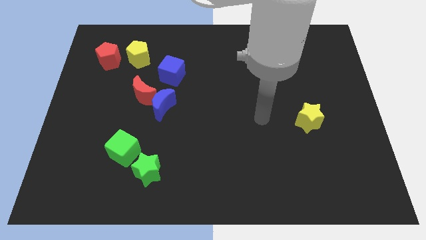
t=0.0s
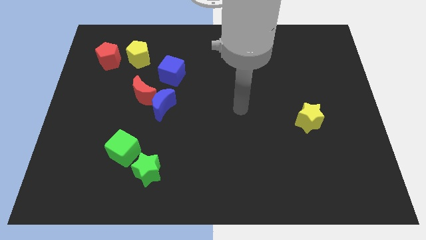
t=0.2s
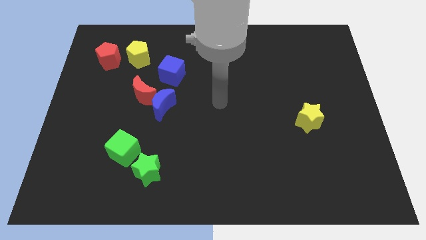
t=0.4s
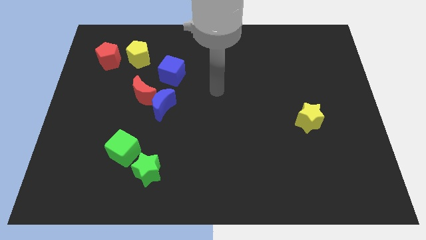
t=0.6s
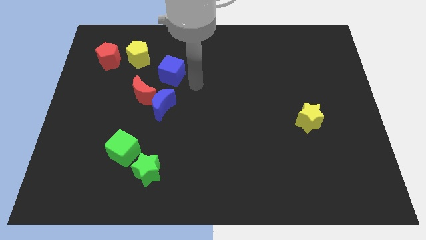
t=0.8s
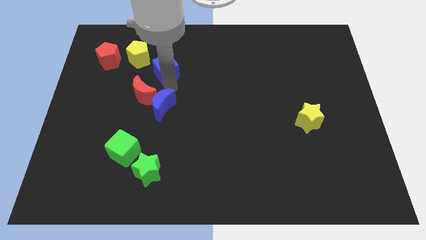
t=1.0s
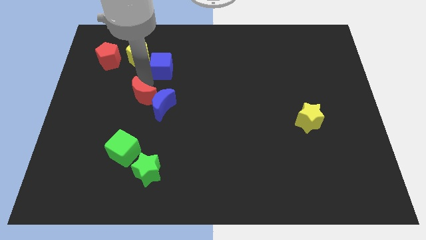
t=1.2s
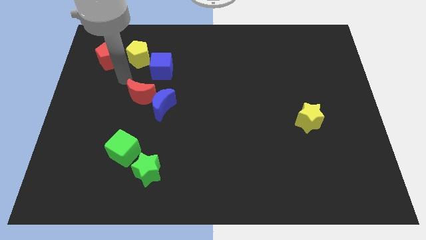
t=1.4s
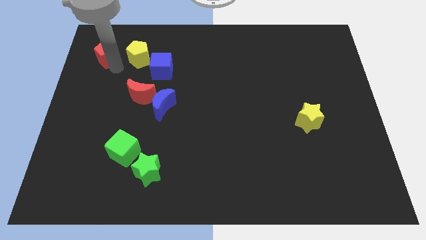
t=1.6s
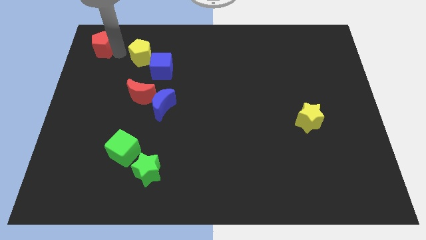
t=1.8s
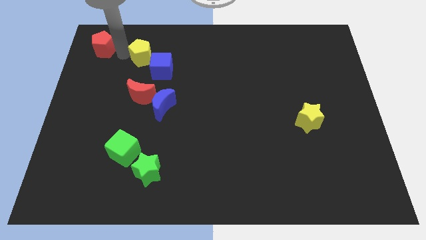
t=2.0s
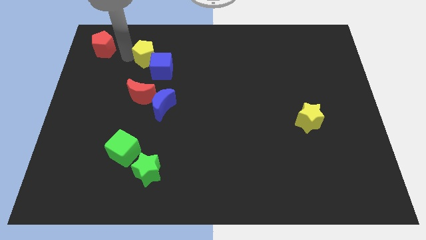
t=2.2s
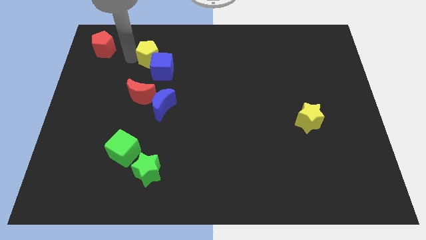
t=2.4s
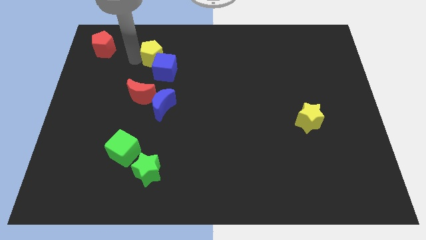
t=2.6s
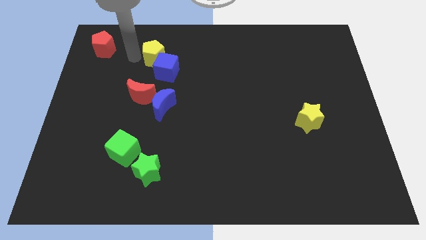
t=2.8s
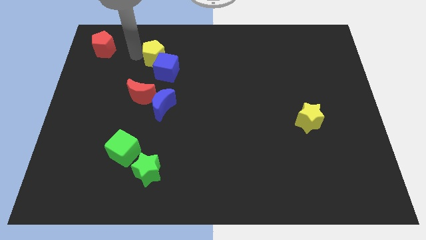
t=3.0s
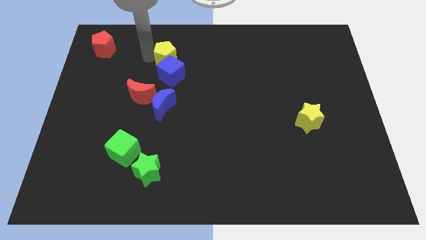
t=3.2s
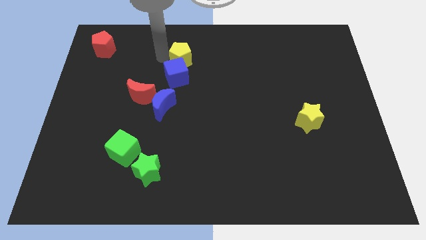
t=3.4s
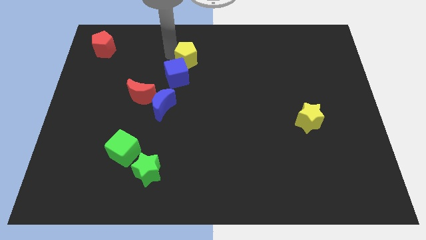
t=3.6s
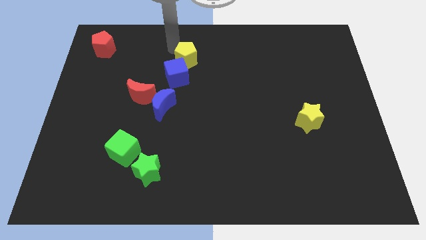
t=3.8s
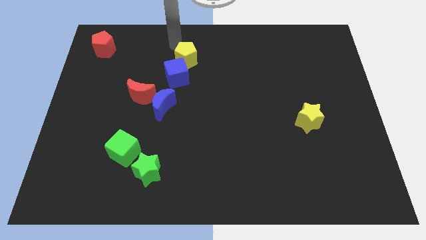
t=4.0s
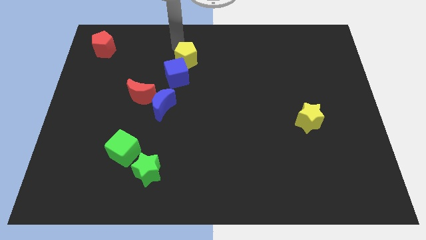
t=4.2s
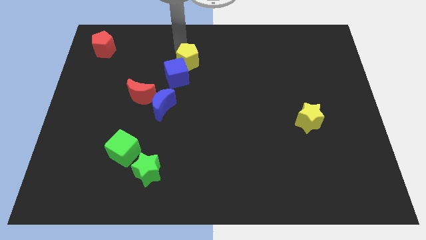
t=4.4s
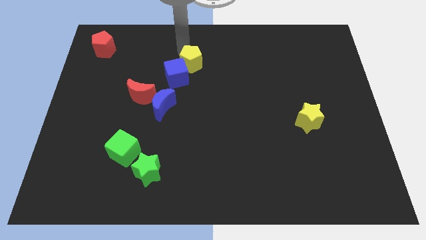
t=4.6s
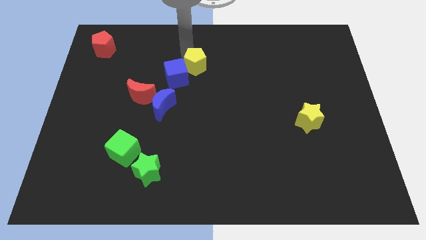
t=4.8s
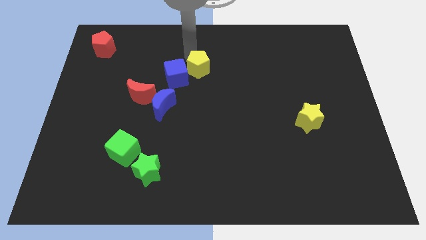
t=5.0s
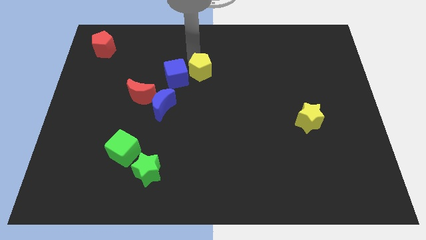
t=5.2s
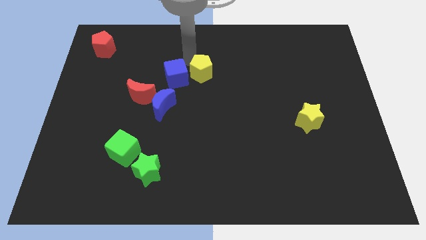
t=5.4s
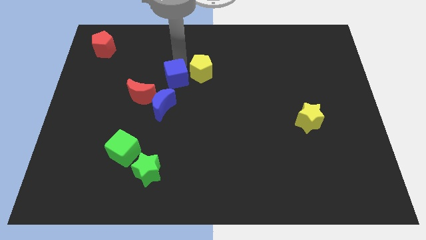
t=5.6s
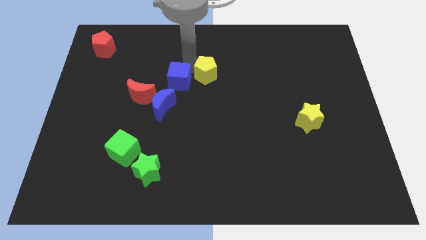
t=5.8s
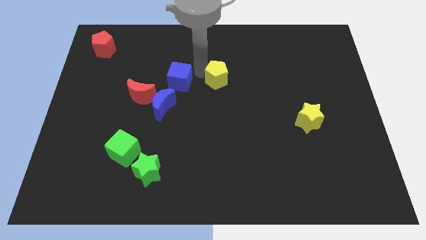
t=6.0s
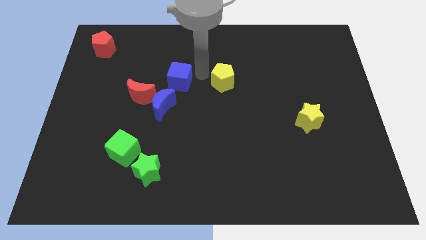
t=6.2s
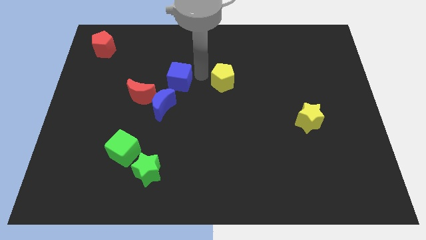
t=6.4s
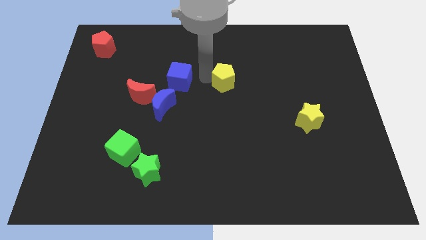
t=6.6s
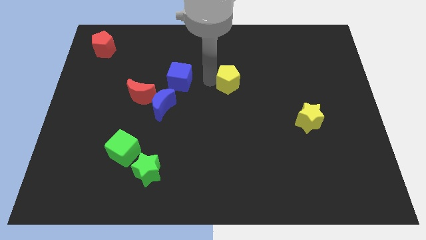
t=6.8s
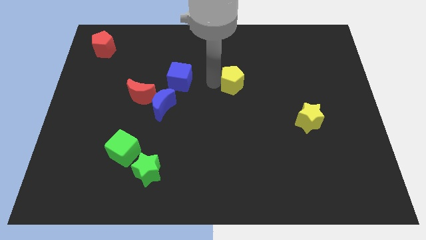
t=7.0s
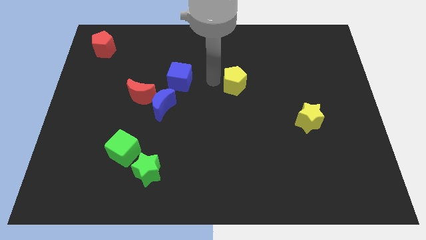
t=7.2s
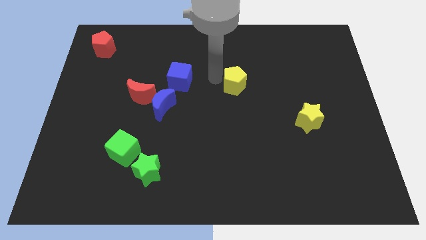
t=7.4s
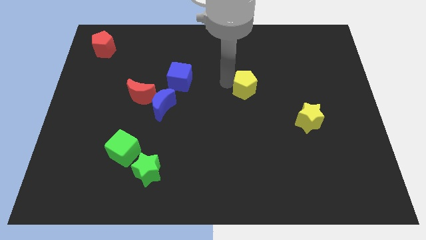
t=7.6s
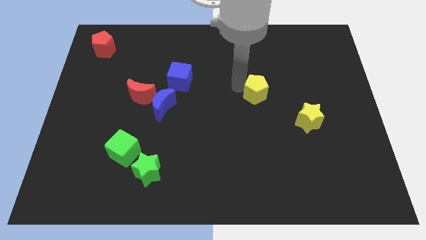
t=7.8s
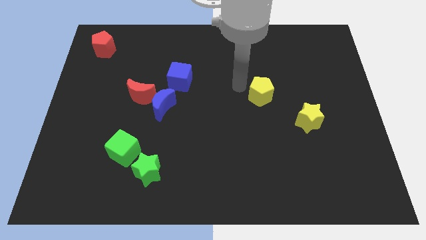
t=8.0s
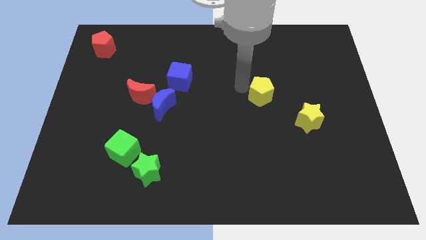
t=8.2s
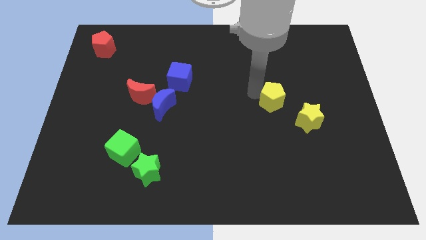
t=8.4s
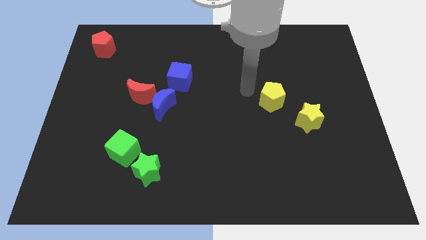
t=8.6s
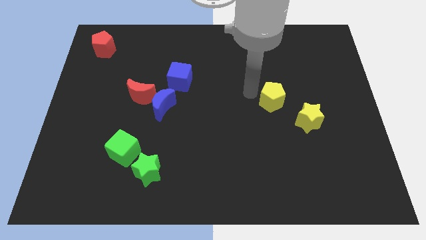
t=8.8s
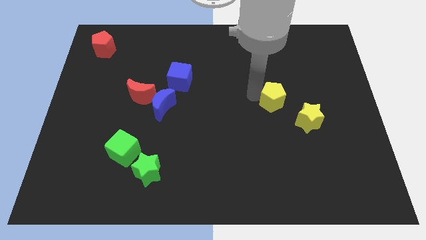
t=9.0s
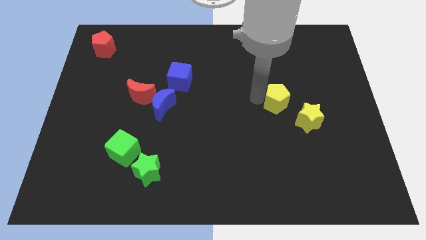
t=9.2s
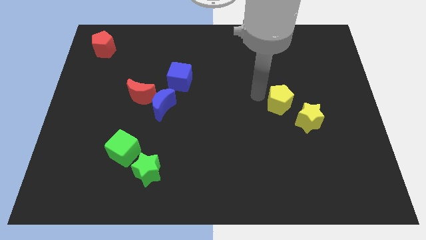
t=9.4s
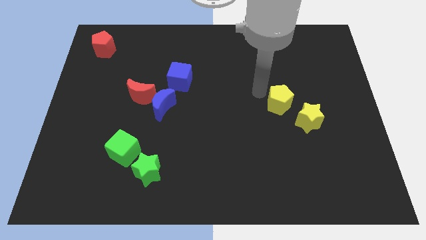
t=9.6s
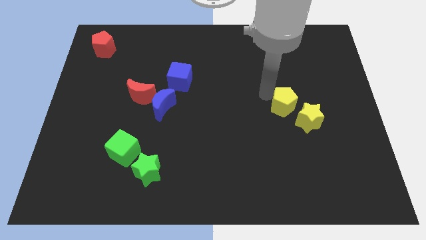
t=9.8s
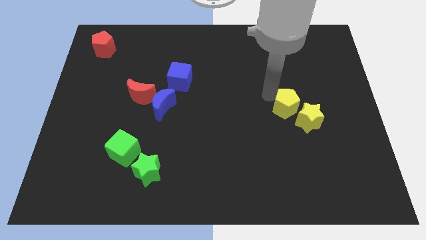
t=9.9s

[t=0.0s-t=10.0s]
move the yellow pentagon close to the yellow star

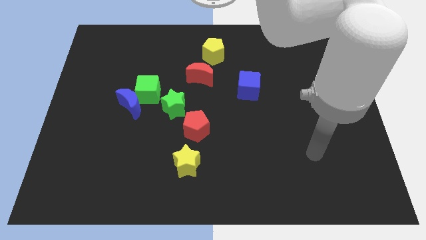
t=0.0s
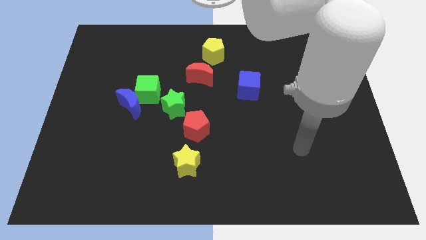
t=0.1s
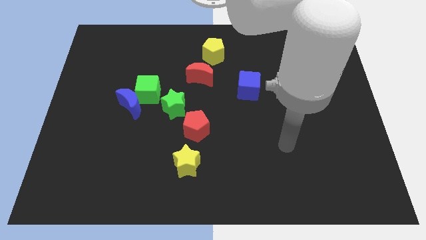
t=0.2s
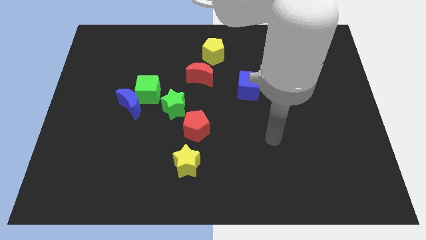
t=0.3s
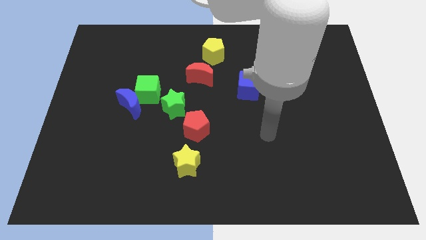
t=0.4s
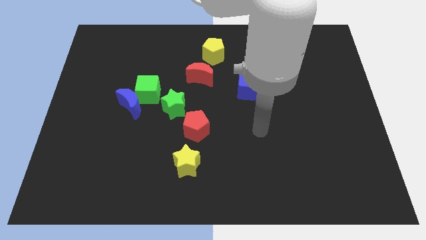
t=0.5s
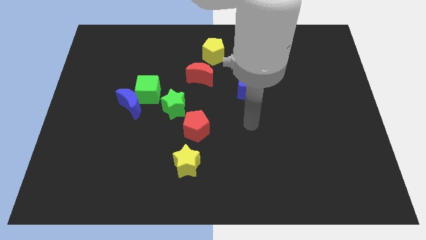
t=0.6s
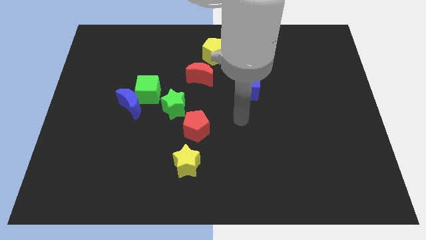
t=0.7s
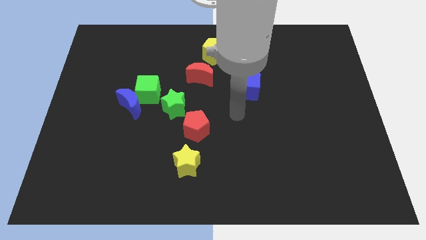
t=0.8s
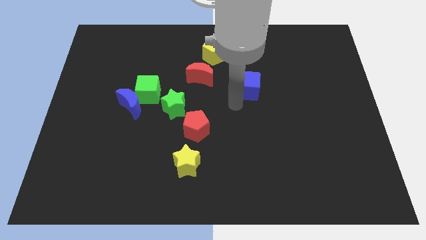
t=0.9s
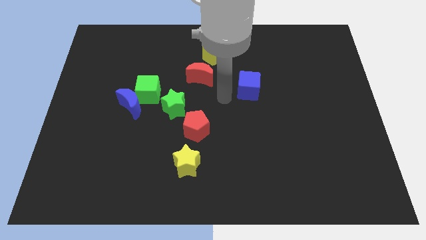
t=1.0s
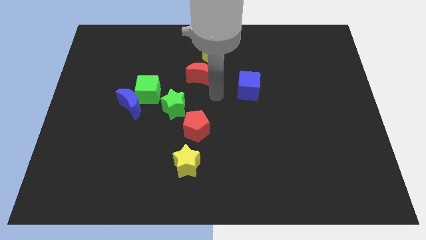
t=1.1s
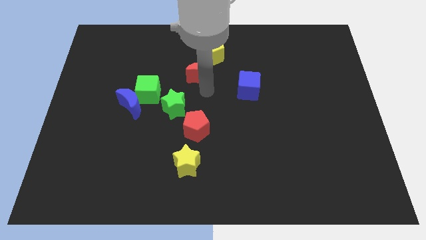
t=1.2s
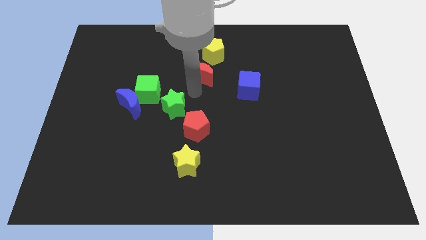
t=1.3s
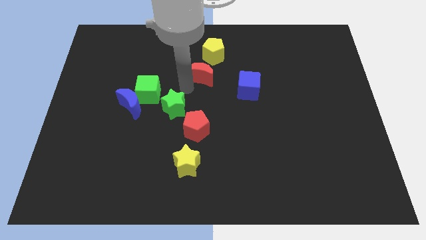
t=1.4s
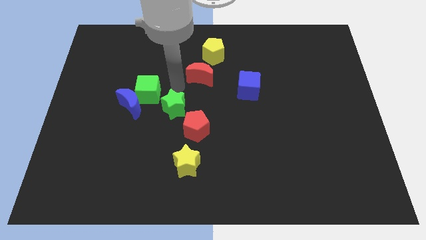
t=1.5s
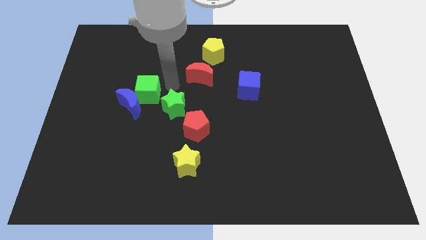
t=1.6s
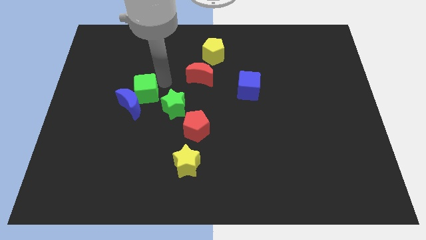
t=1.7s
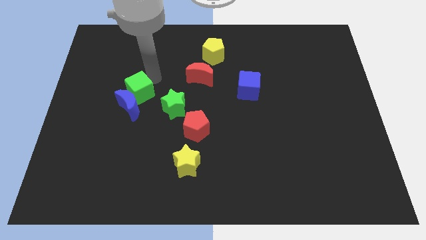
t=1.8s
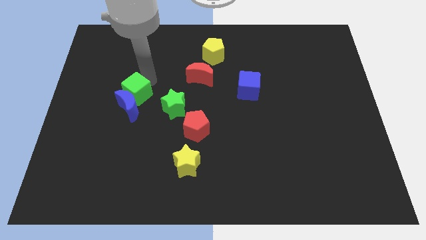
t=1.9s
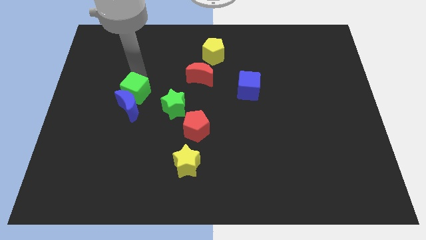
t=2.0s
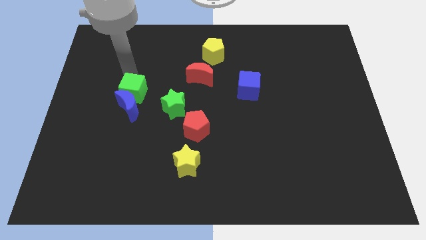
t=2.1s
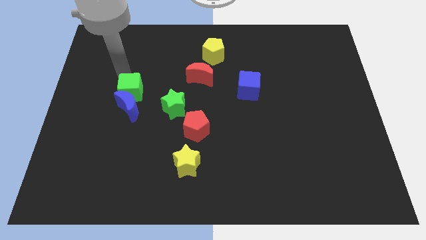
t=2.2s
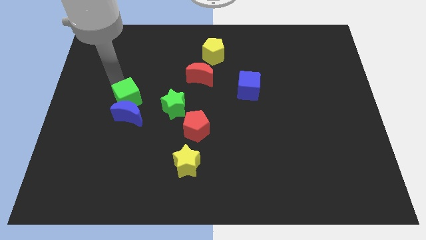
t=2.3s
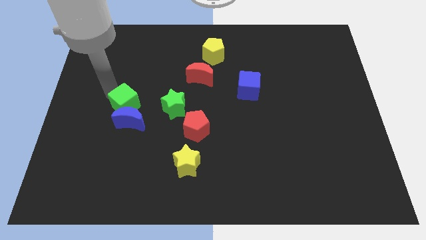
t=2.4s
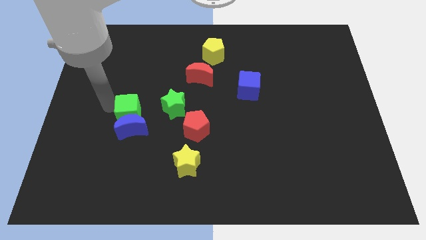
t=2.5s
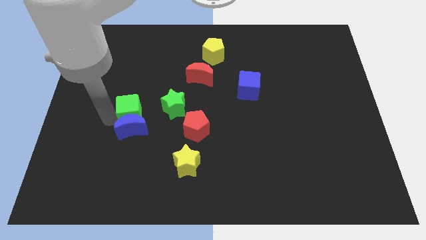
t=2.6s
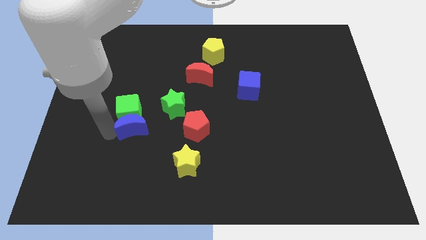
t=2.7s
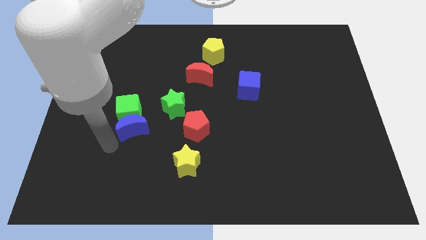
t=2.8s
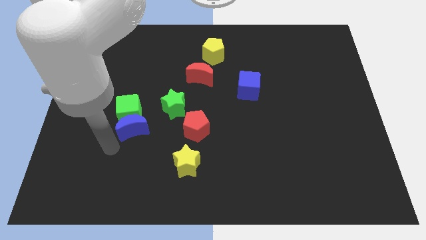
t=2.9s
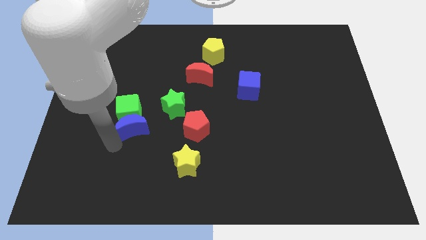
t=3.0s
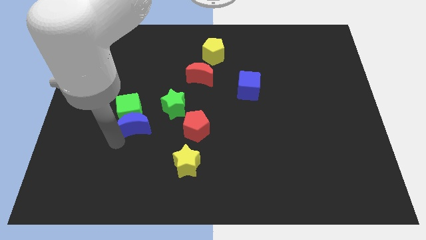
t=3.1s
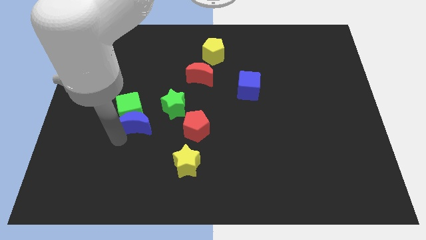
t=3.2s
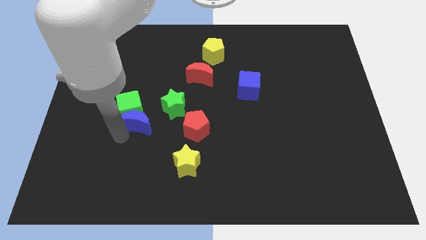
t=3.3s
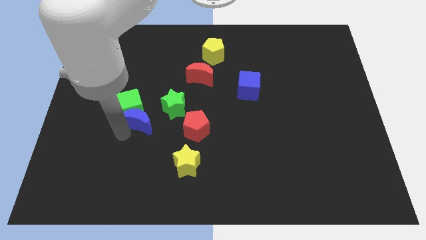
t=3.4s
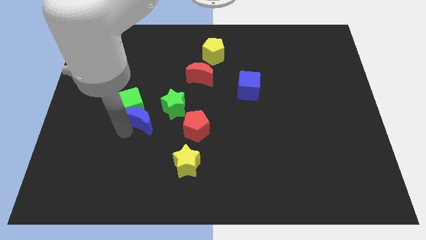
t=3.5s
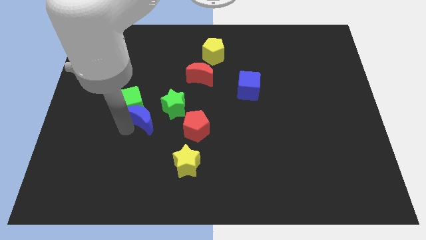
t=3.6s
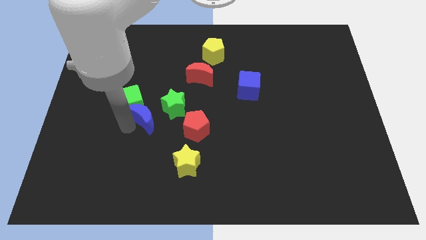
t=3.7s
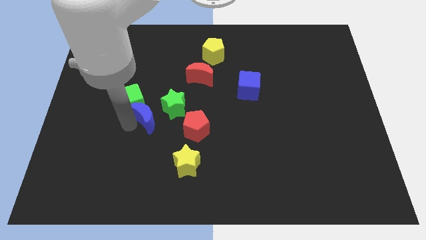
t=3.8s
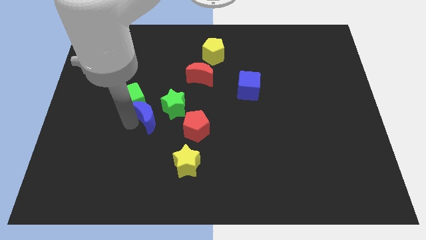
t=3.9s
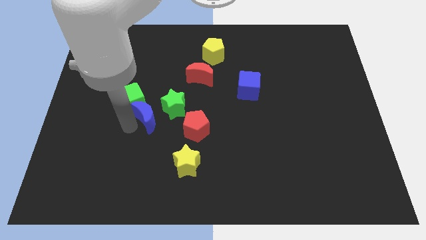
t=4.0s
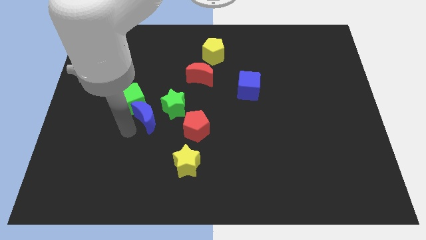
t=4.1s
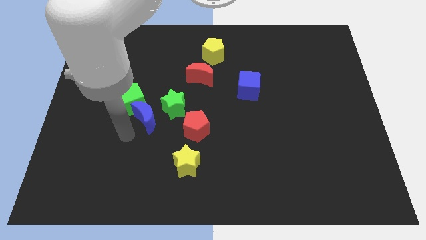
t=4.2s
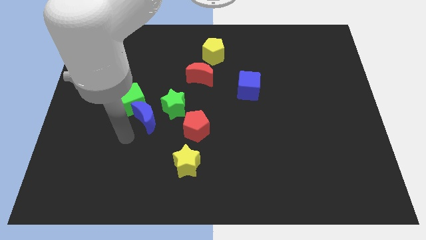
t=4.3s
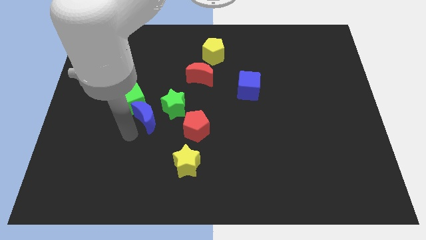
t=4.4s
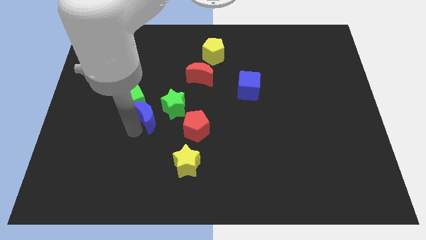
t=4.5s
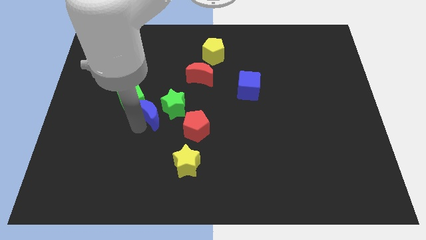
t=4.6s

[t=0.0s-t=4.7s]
push the blue moon close to the green star
